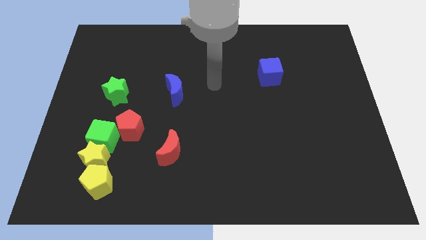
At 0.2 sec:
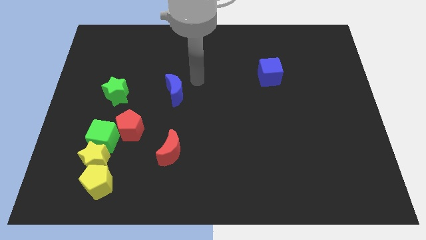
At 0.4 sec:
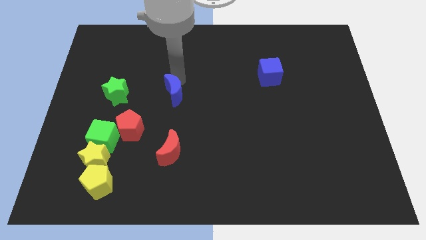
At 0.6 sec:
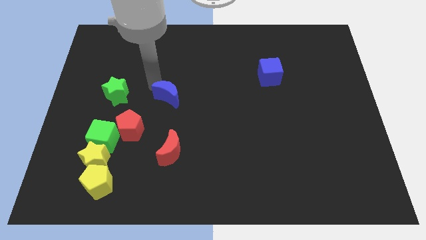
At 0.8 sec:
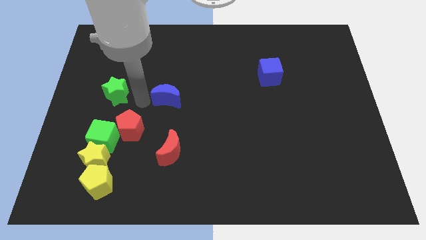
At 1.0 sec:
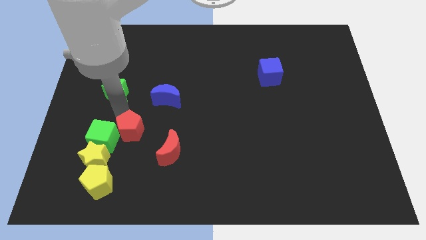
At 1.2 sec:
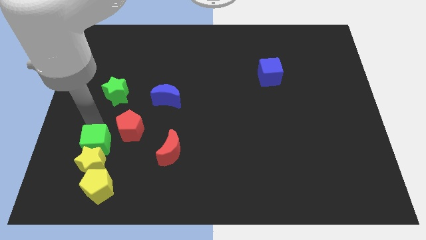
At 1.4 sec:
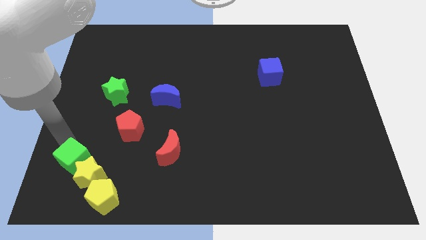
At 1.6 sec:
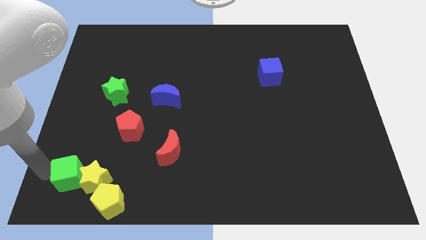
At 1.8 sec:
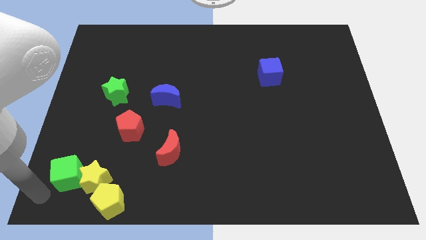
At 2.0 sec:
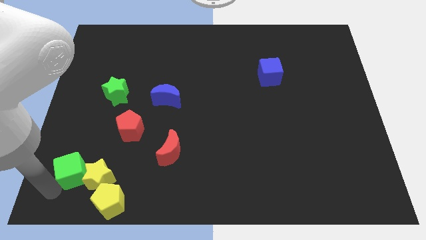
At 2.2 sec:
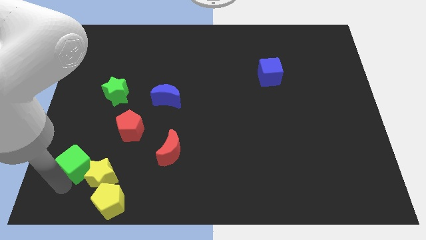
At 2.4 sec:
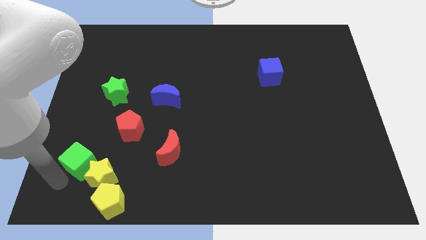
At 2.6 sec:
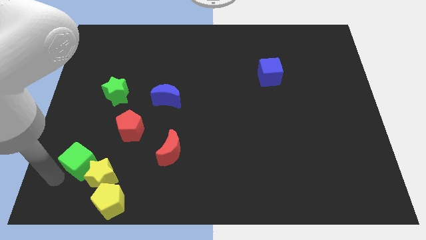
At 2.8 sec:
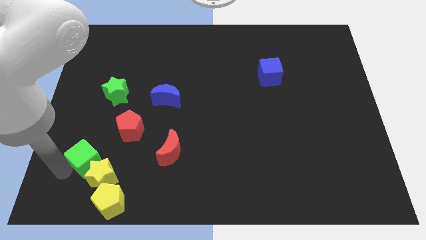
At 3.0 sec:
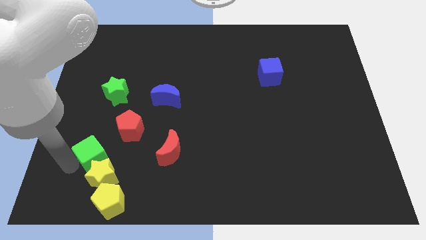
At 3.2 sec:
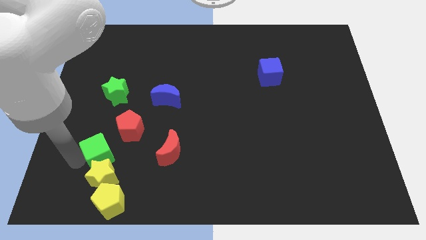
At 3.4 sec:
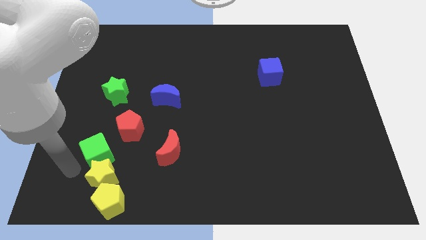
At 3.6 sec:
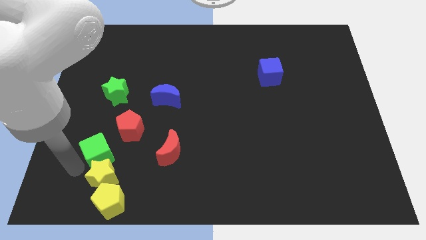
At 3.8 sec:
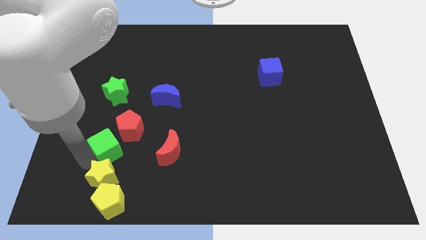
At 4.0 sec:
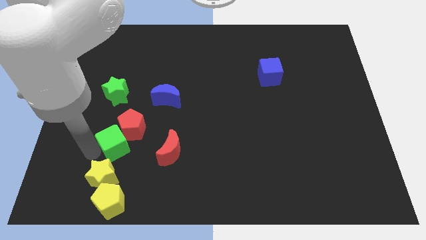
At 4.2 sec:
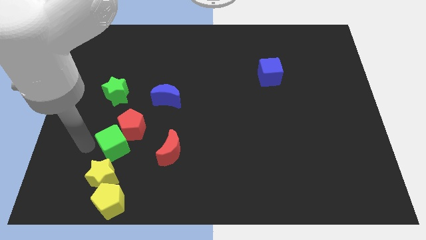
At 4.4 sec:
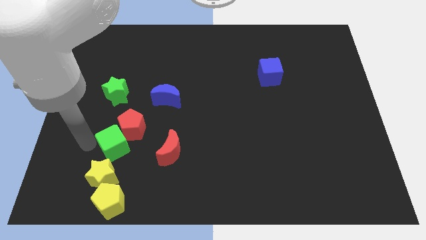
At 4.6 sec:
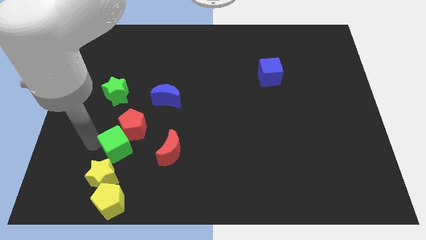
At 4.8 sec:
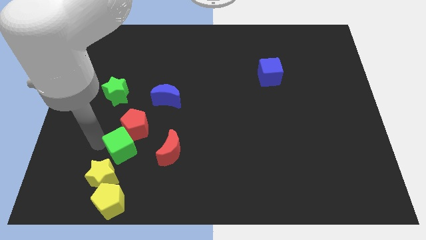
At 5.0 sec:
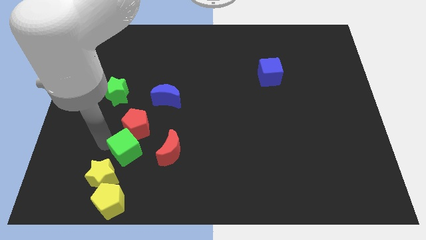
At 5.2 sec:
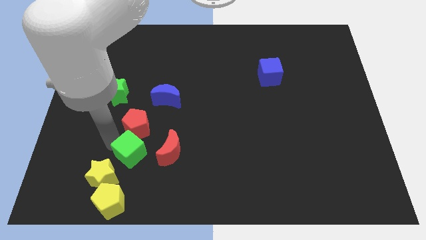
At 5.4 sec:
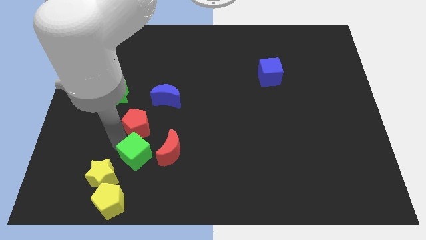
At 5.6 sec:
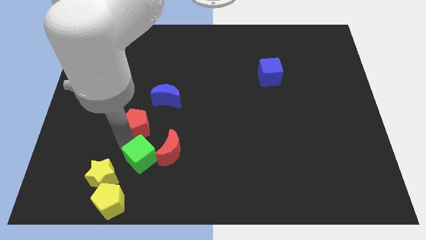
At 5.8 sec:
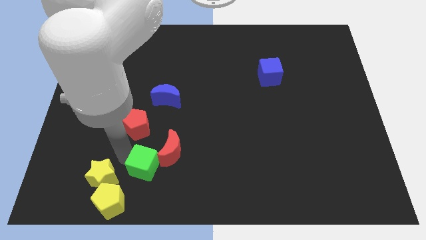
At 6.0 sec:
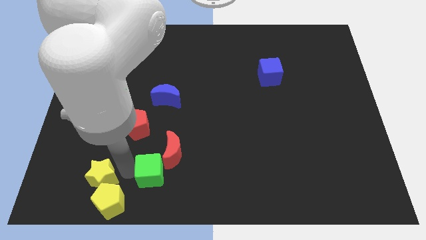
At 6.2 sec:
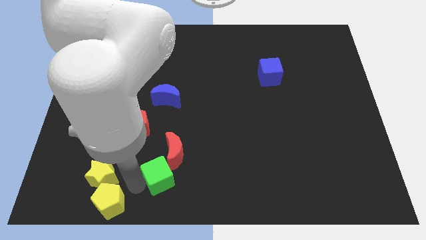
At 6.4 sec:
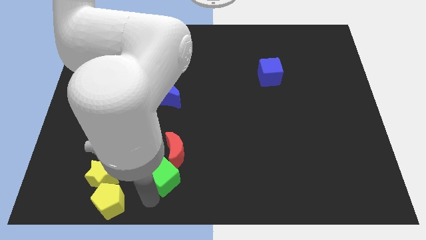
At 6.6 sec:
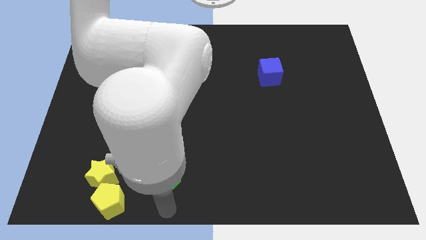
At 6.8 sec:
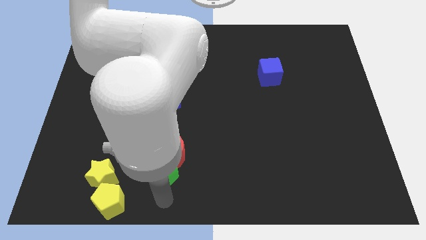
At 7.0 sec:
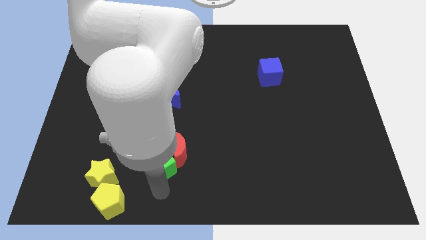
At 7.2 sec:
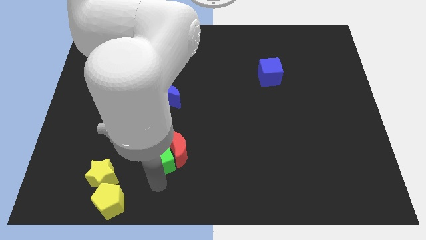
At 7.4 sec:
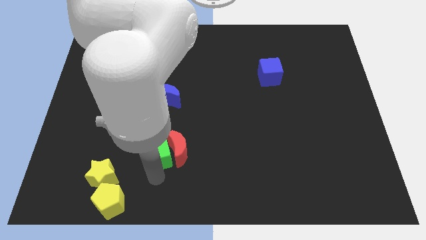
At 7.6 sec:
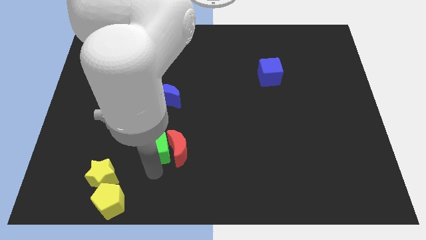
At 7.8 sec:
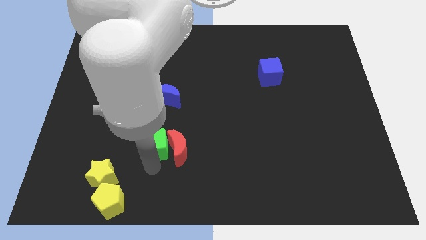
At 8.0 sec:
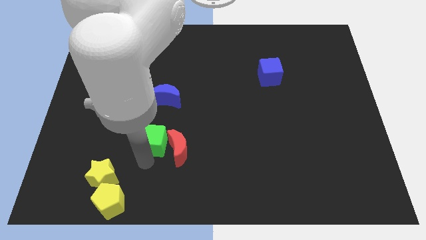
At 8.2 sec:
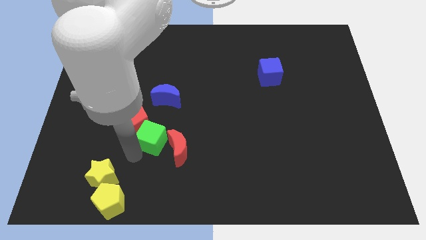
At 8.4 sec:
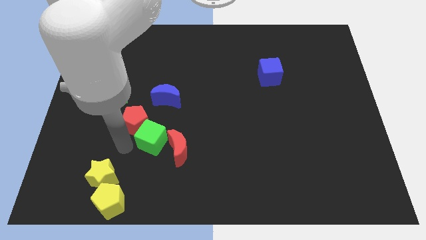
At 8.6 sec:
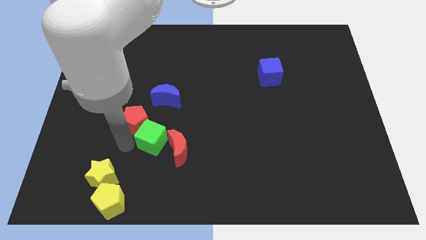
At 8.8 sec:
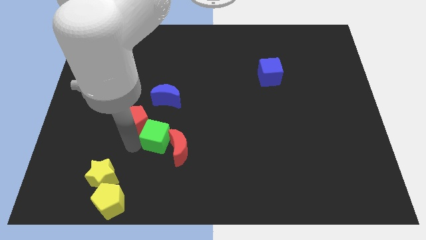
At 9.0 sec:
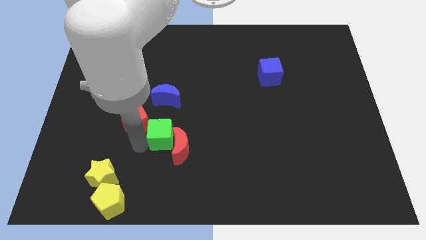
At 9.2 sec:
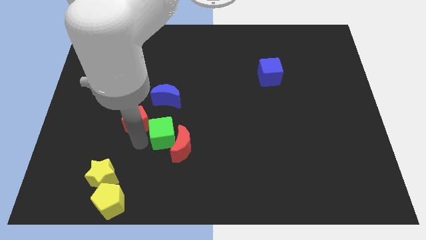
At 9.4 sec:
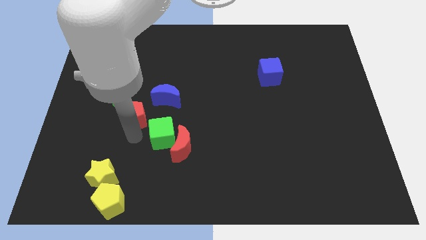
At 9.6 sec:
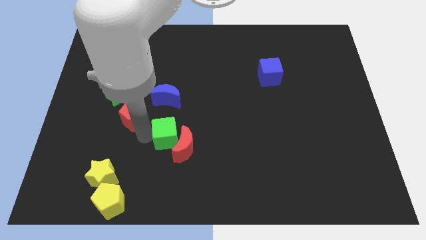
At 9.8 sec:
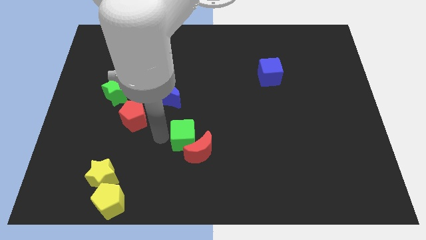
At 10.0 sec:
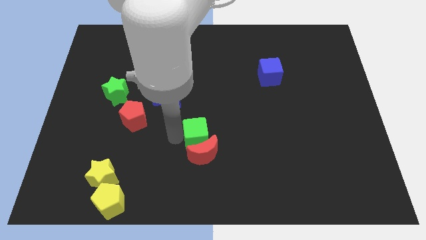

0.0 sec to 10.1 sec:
move the green cube right

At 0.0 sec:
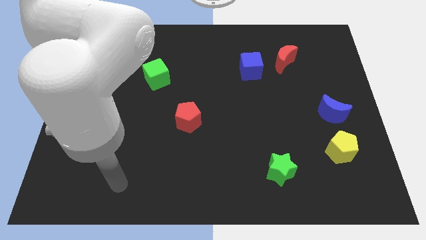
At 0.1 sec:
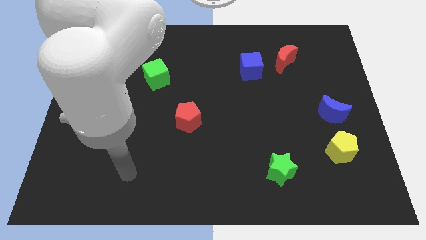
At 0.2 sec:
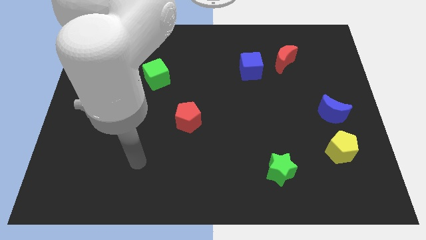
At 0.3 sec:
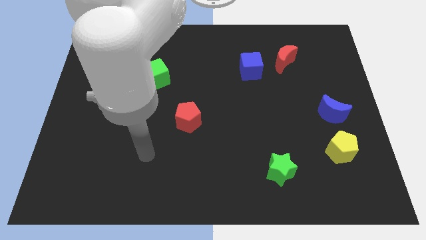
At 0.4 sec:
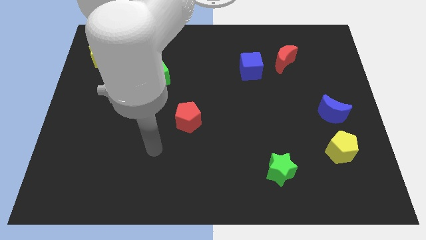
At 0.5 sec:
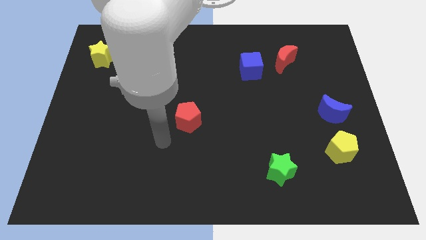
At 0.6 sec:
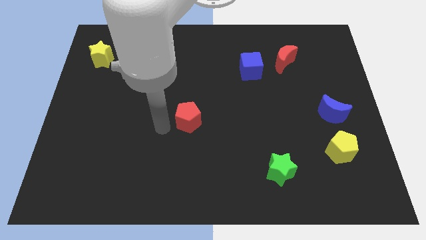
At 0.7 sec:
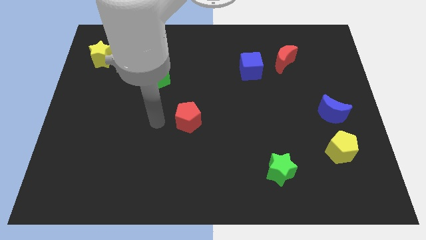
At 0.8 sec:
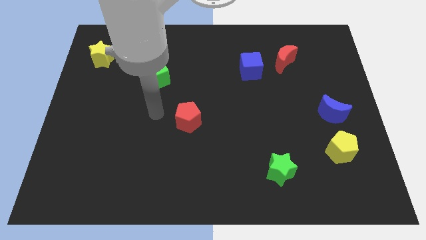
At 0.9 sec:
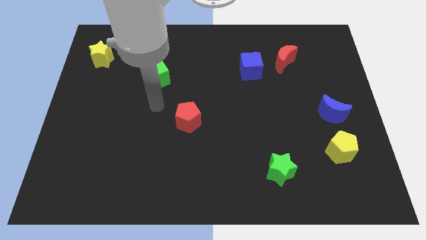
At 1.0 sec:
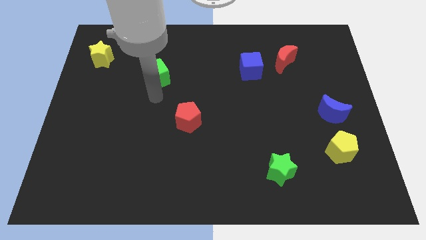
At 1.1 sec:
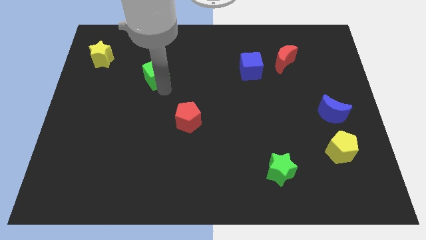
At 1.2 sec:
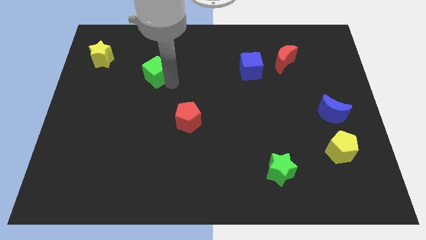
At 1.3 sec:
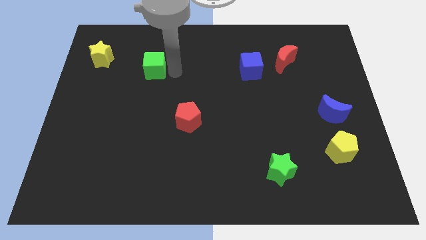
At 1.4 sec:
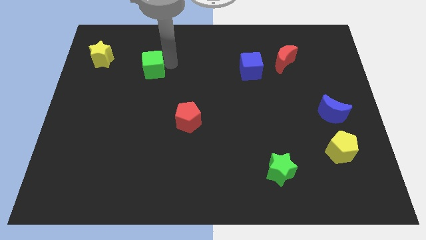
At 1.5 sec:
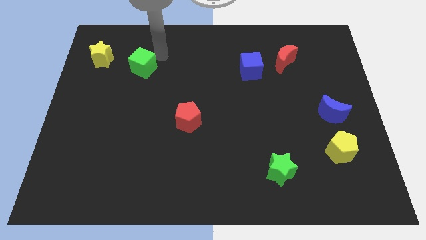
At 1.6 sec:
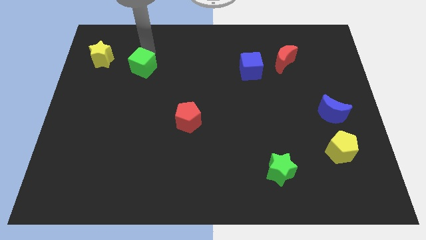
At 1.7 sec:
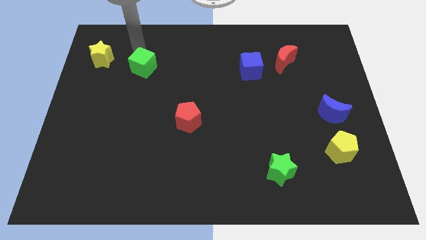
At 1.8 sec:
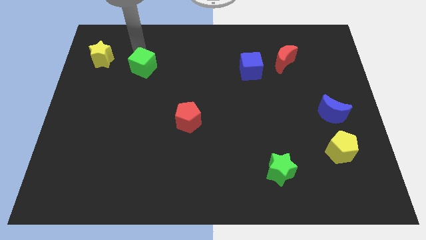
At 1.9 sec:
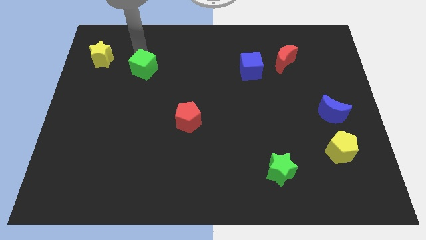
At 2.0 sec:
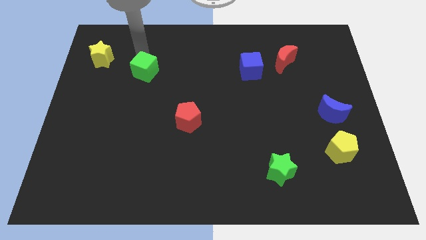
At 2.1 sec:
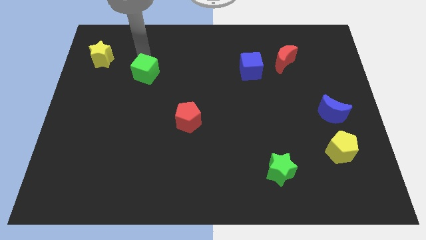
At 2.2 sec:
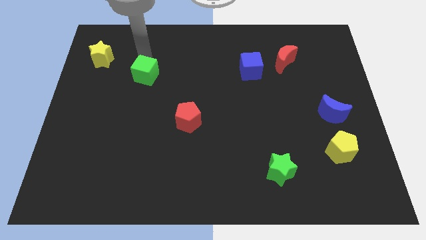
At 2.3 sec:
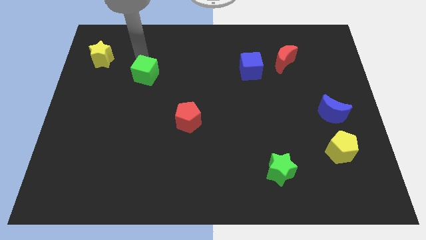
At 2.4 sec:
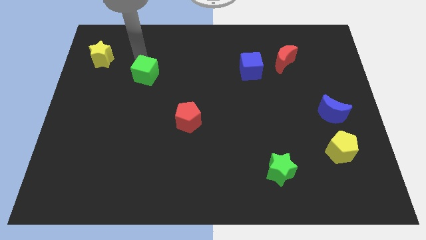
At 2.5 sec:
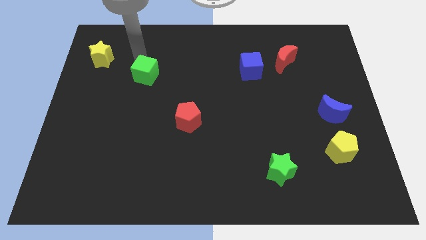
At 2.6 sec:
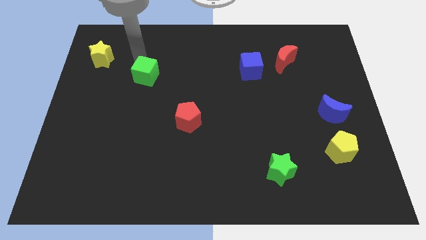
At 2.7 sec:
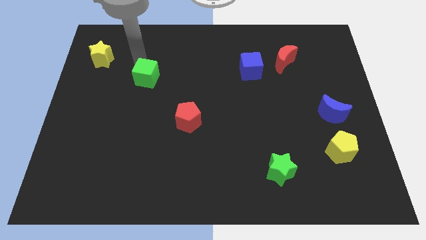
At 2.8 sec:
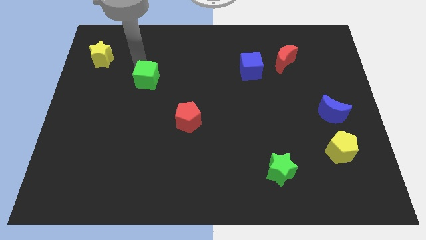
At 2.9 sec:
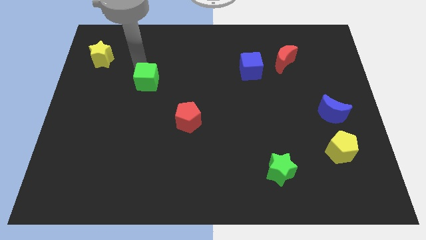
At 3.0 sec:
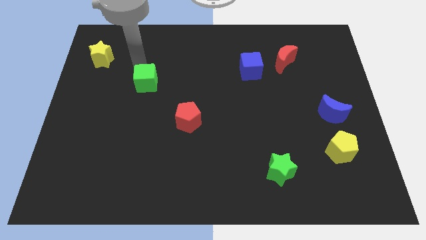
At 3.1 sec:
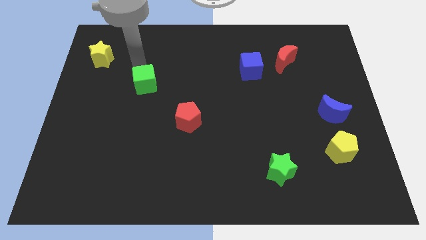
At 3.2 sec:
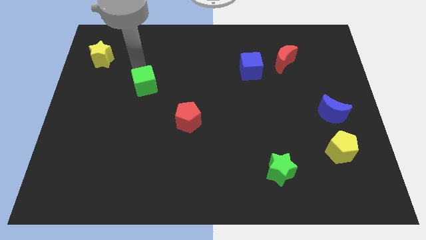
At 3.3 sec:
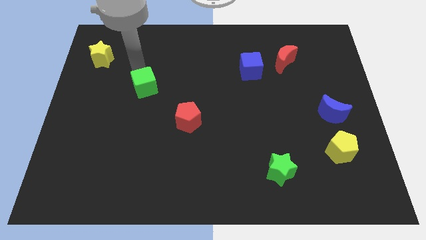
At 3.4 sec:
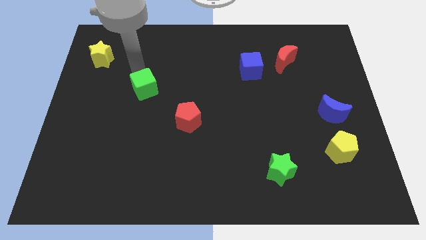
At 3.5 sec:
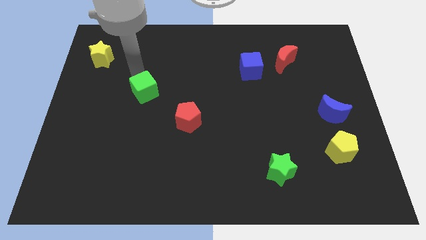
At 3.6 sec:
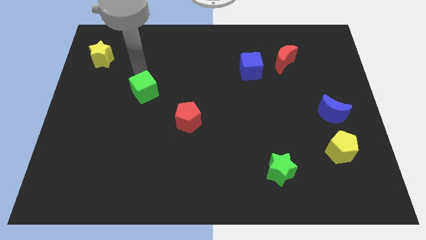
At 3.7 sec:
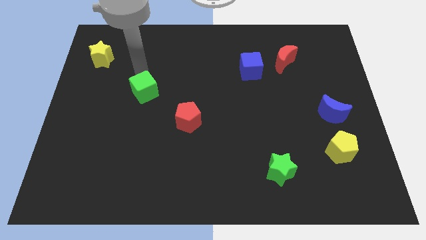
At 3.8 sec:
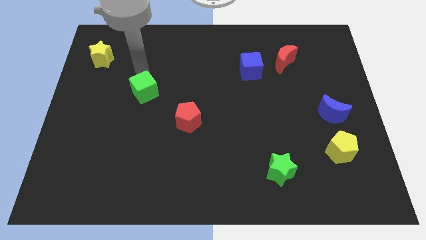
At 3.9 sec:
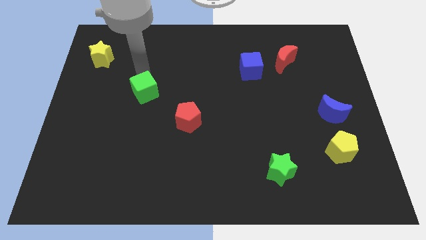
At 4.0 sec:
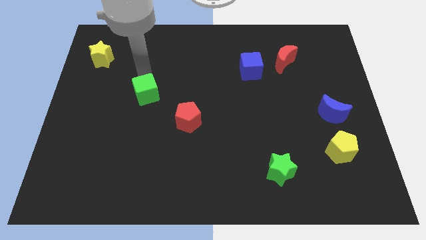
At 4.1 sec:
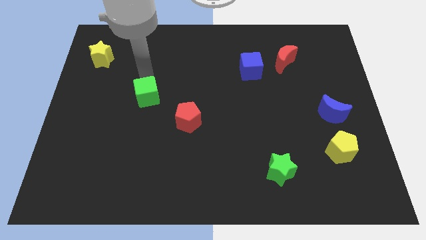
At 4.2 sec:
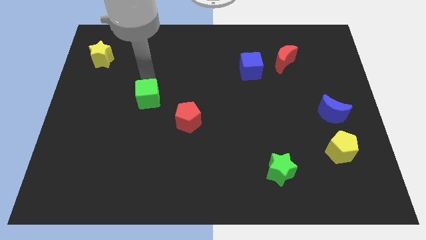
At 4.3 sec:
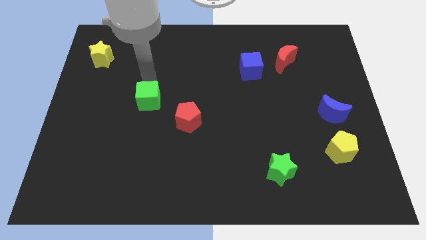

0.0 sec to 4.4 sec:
move the green cube somewhat downwards
